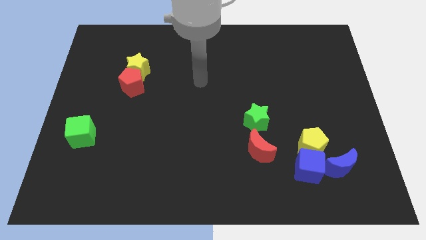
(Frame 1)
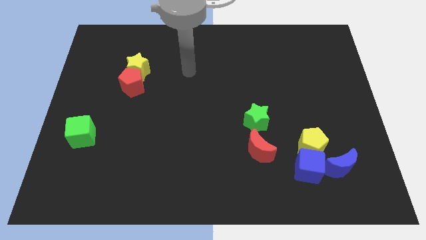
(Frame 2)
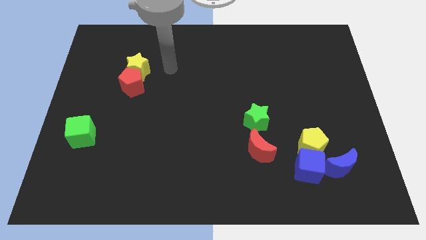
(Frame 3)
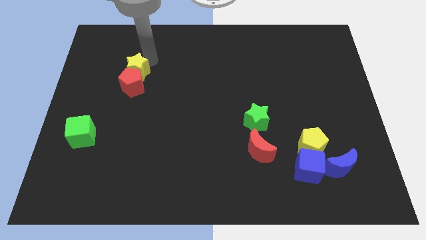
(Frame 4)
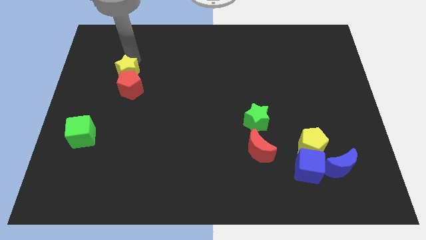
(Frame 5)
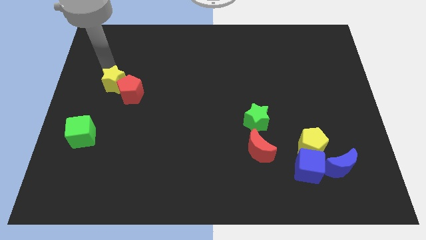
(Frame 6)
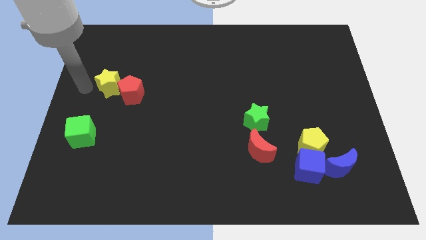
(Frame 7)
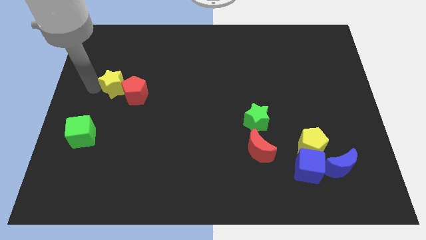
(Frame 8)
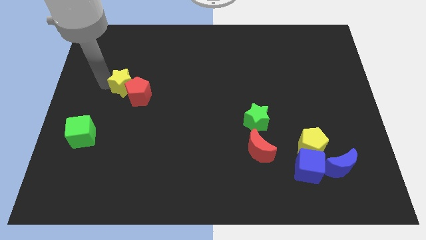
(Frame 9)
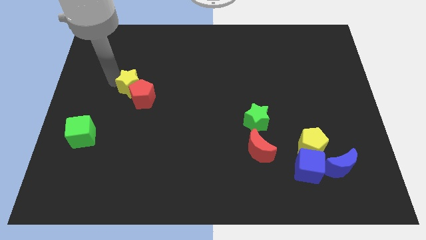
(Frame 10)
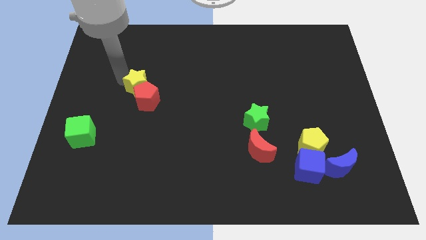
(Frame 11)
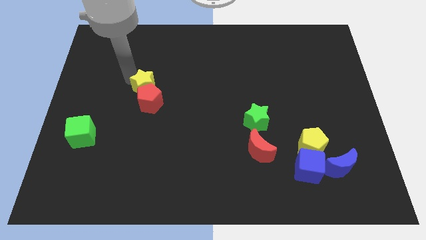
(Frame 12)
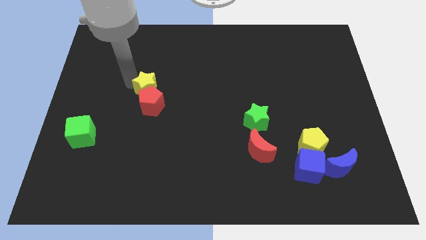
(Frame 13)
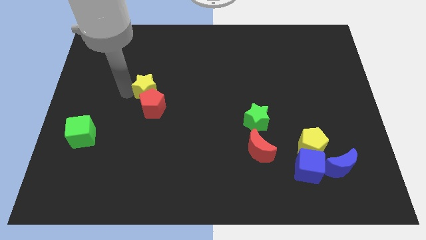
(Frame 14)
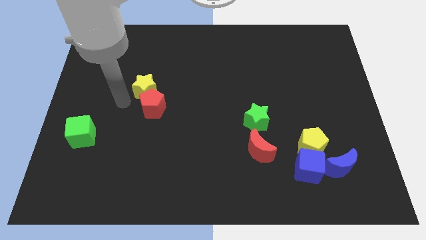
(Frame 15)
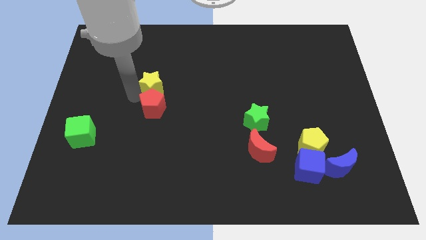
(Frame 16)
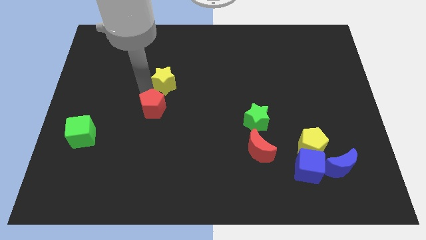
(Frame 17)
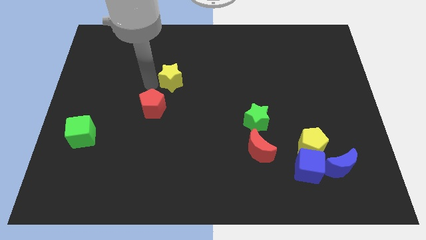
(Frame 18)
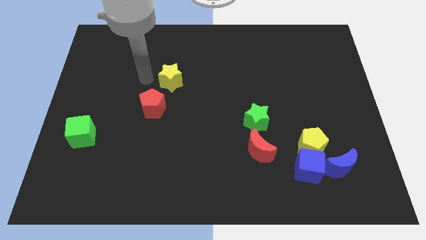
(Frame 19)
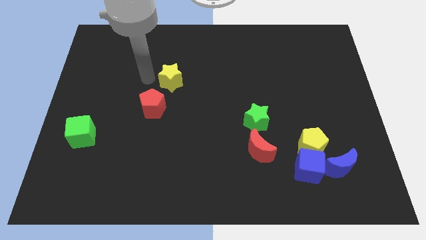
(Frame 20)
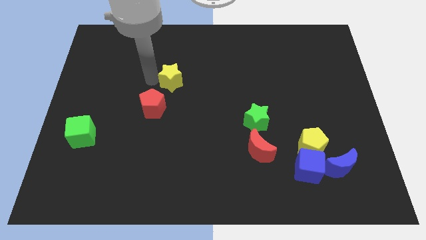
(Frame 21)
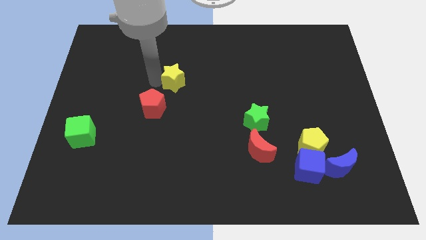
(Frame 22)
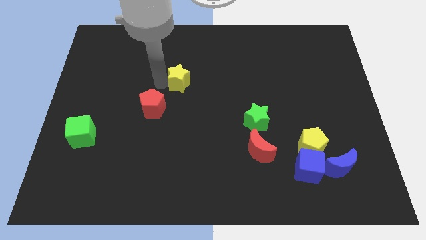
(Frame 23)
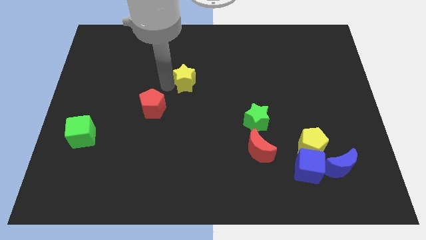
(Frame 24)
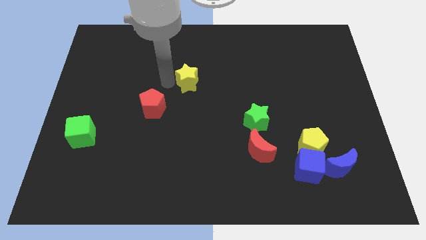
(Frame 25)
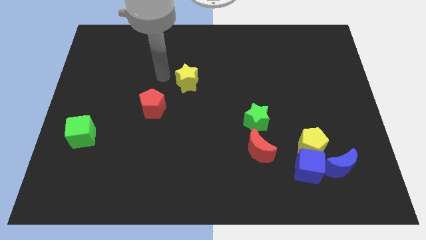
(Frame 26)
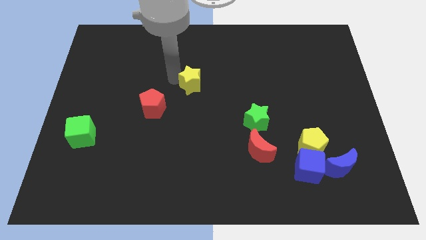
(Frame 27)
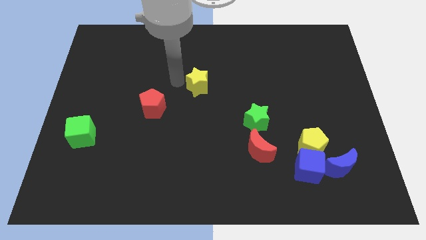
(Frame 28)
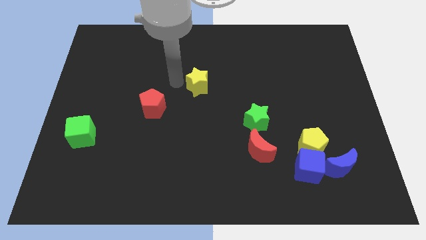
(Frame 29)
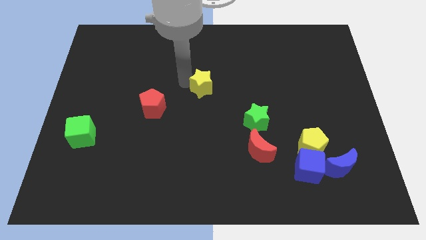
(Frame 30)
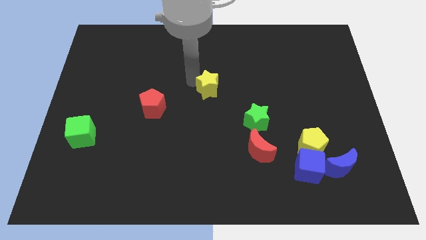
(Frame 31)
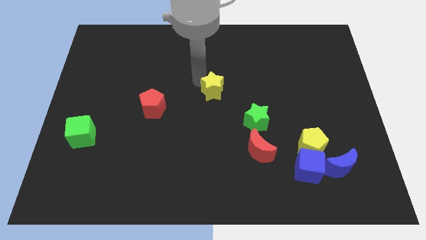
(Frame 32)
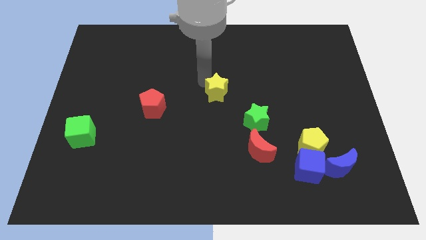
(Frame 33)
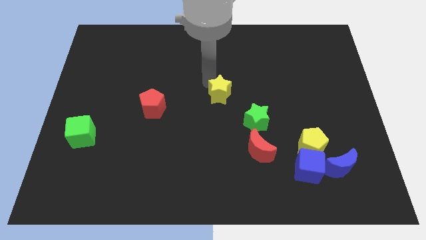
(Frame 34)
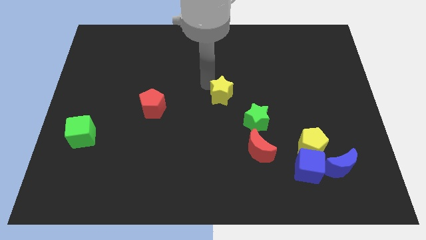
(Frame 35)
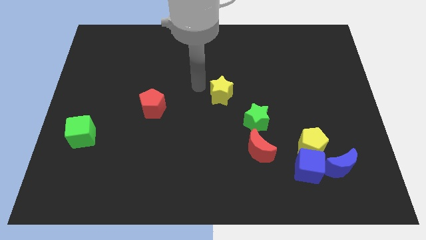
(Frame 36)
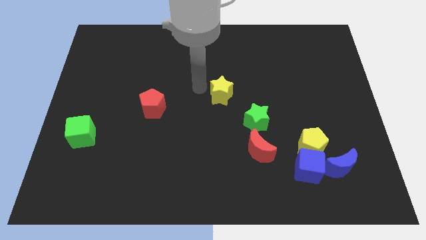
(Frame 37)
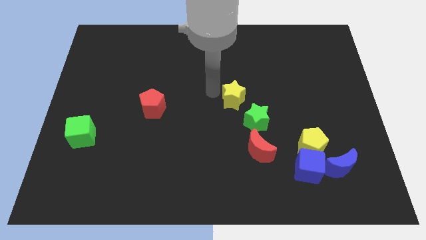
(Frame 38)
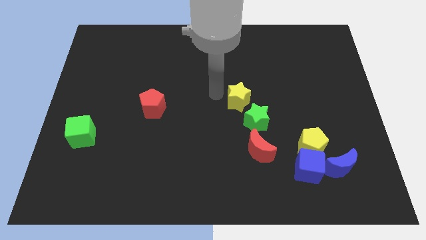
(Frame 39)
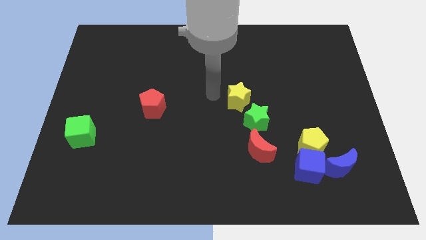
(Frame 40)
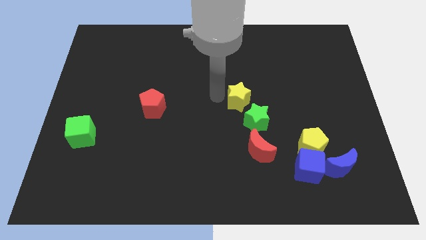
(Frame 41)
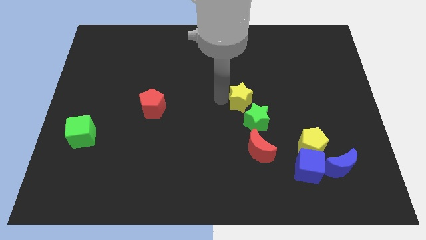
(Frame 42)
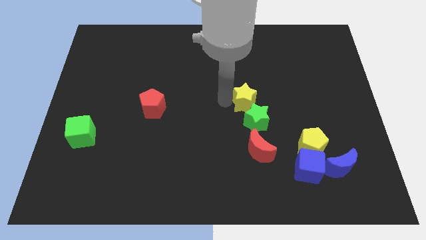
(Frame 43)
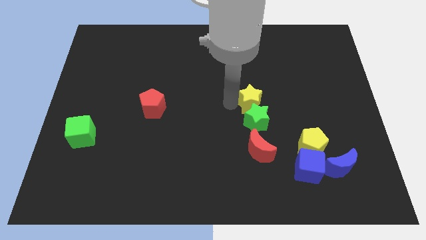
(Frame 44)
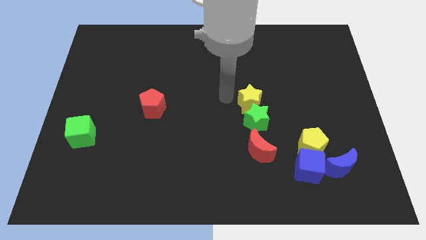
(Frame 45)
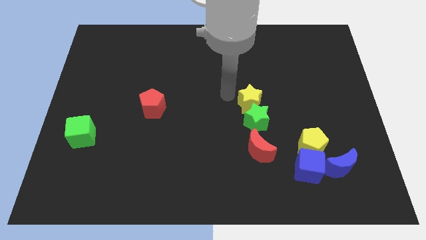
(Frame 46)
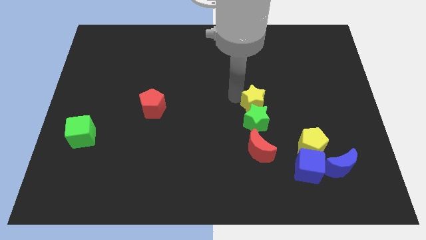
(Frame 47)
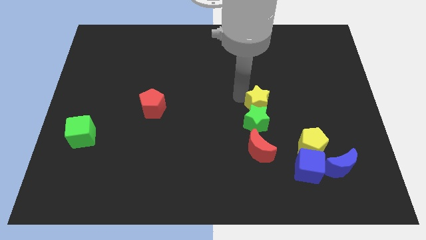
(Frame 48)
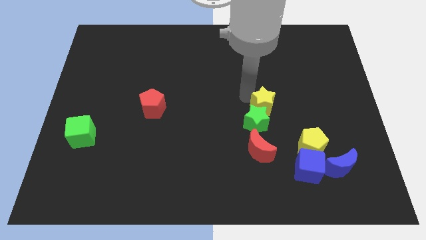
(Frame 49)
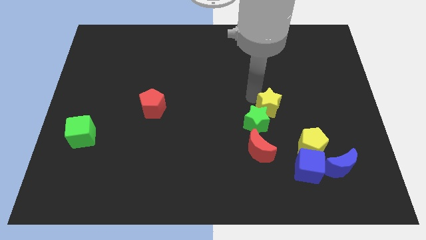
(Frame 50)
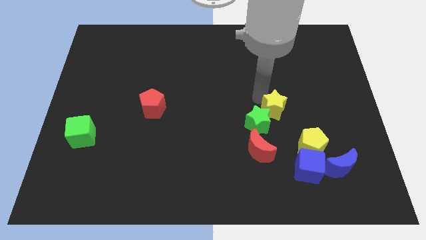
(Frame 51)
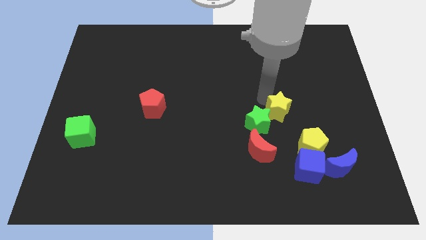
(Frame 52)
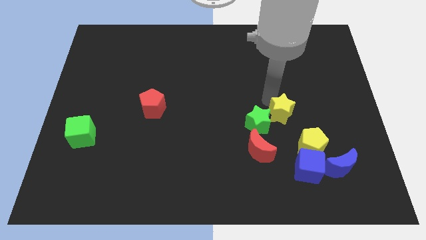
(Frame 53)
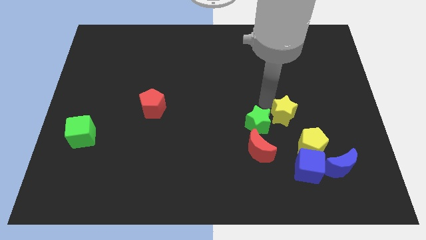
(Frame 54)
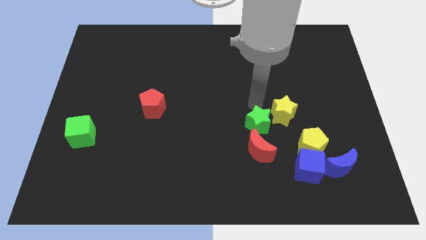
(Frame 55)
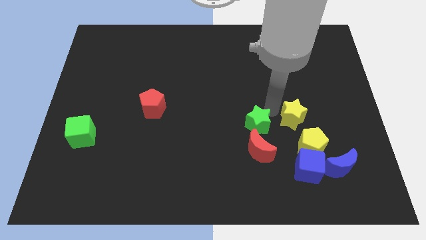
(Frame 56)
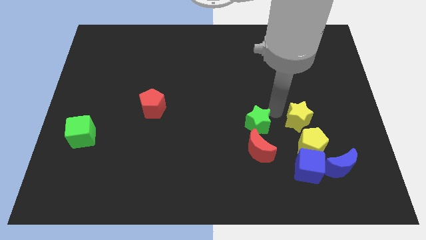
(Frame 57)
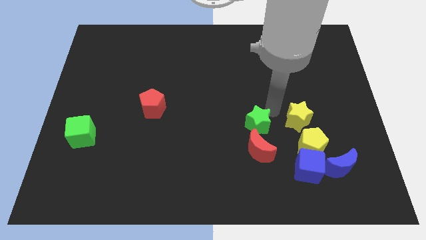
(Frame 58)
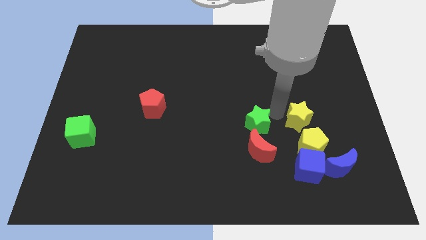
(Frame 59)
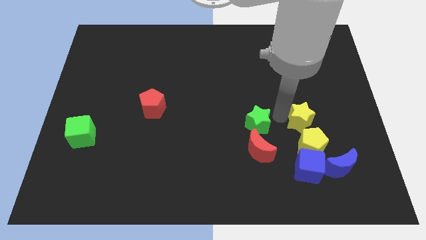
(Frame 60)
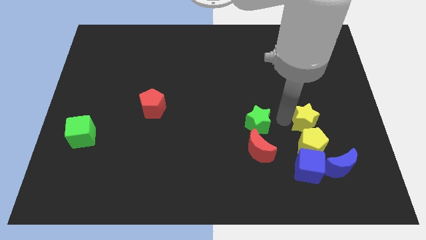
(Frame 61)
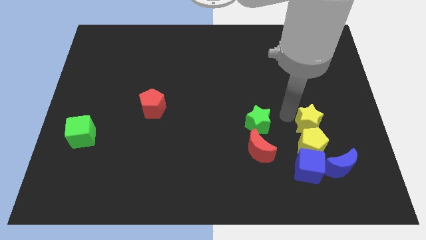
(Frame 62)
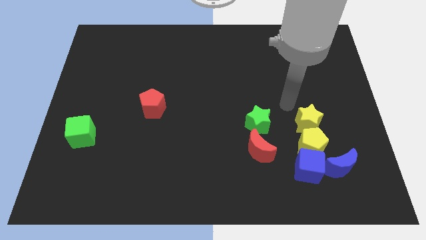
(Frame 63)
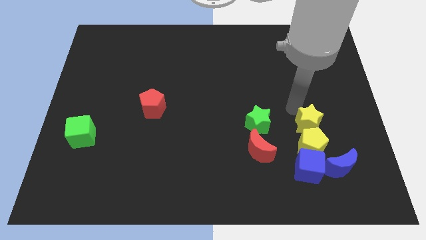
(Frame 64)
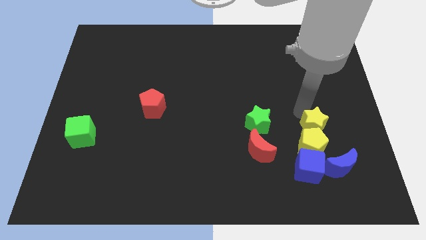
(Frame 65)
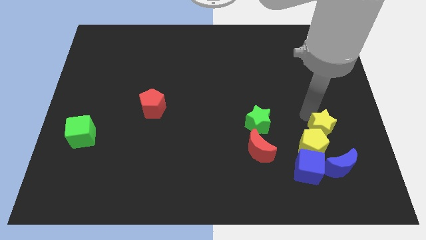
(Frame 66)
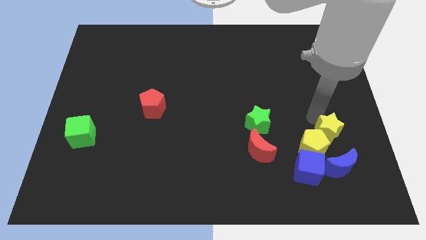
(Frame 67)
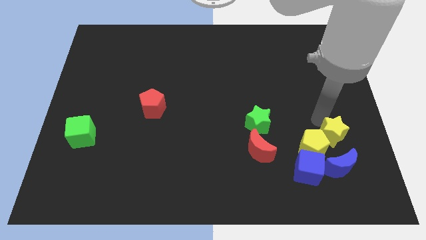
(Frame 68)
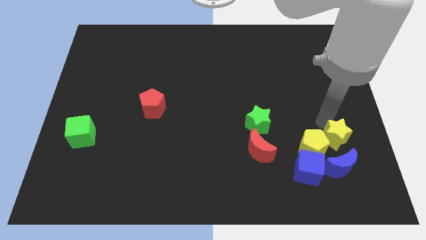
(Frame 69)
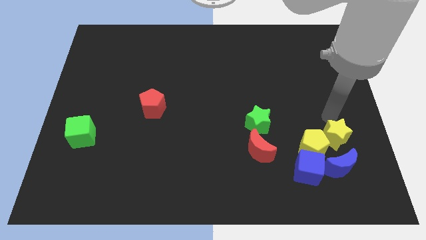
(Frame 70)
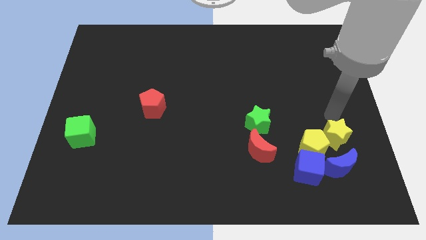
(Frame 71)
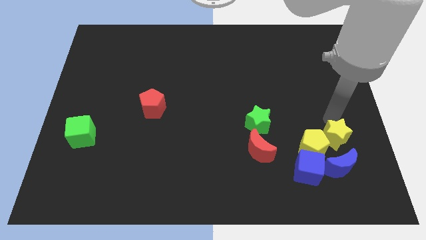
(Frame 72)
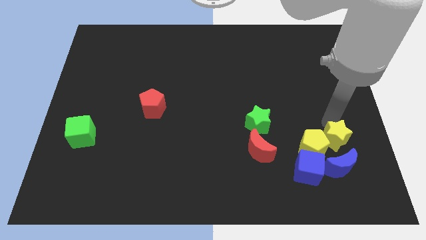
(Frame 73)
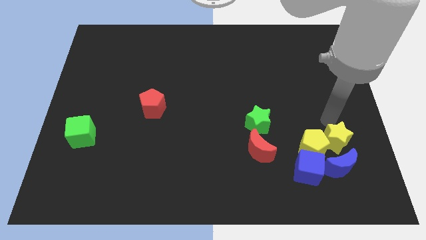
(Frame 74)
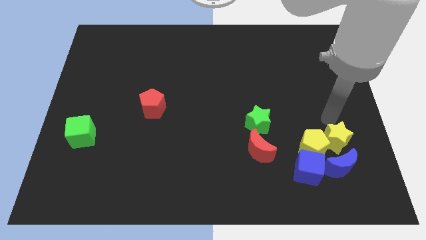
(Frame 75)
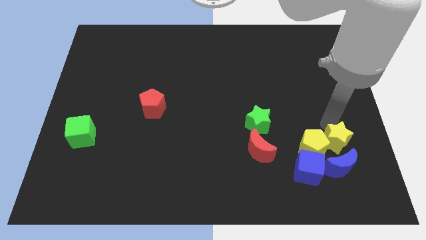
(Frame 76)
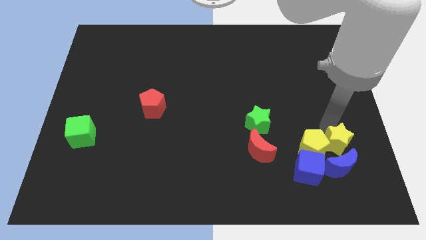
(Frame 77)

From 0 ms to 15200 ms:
push the yellow star towards the blue moon
